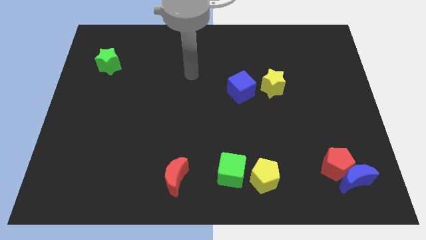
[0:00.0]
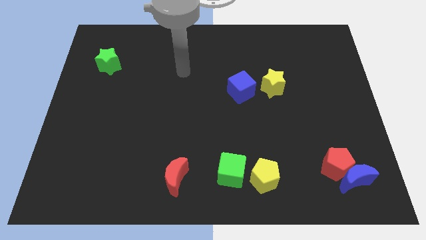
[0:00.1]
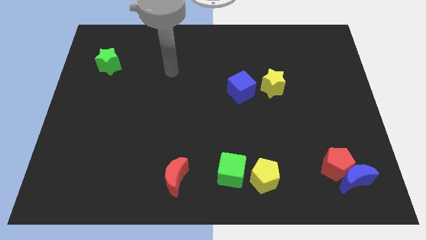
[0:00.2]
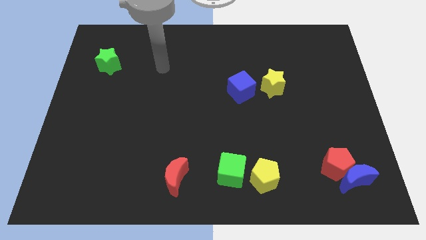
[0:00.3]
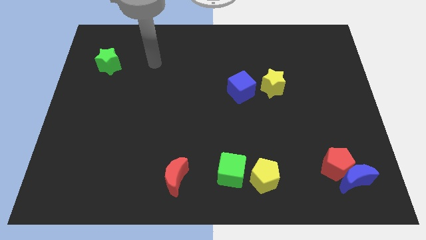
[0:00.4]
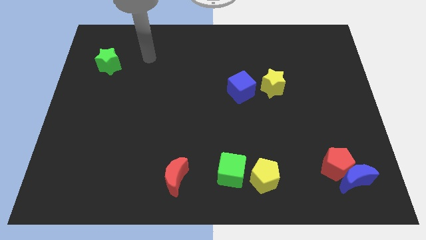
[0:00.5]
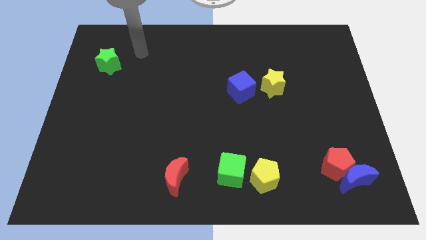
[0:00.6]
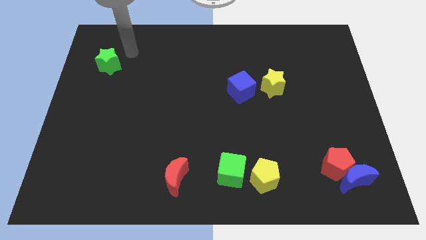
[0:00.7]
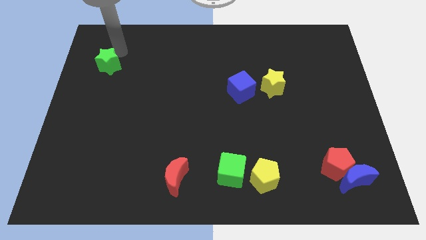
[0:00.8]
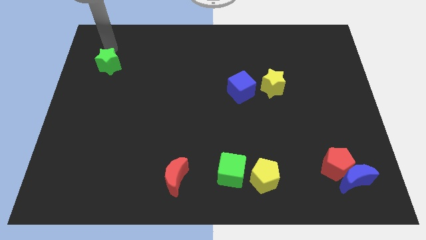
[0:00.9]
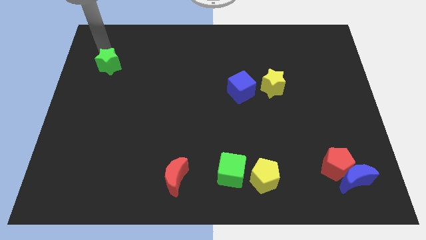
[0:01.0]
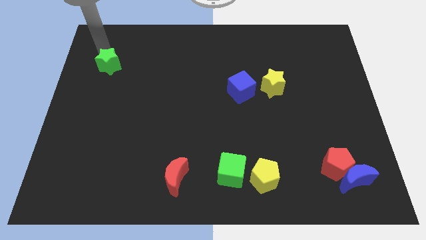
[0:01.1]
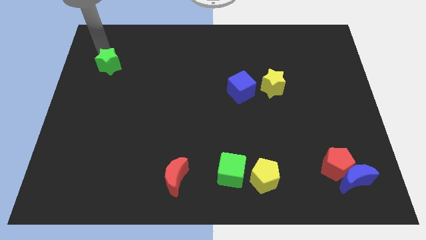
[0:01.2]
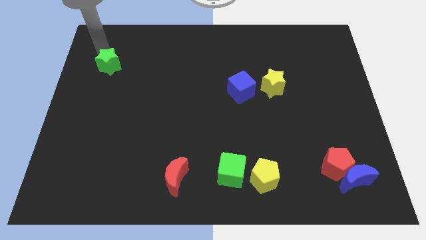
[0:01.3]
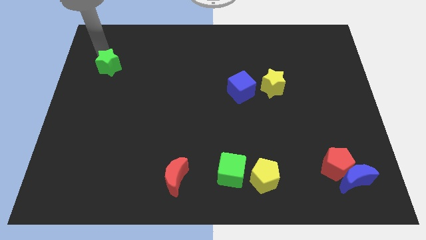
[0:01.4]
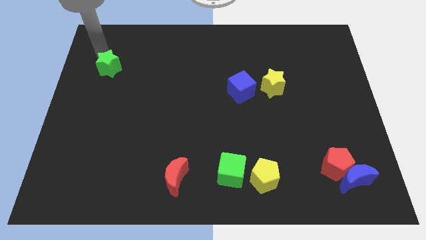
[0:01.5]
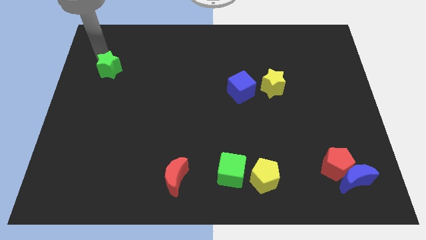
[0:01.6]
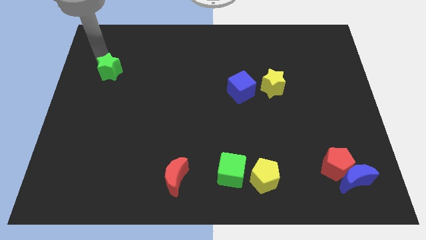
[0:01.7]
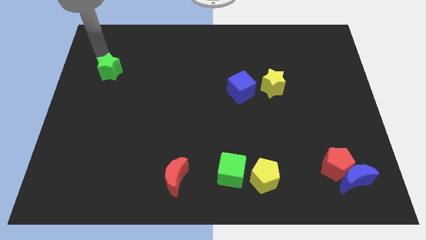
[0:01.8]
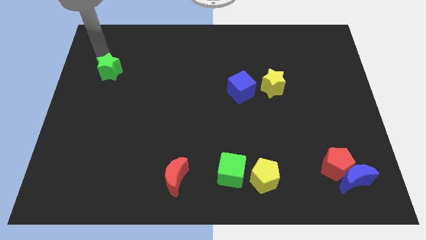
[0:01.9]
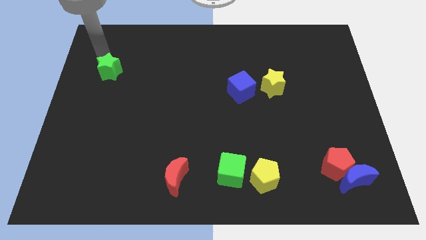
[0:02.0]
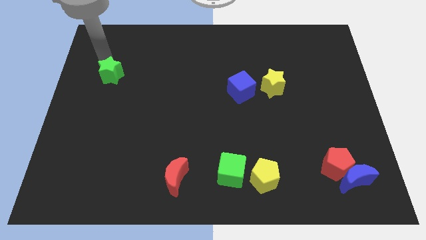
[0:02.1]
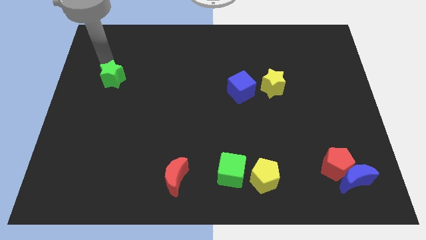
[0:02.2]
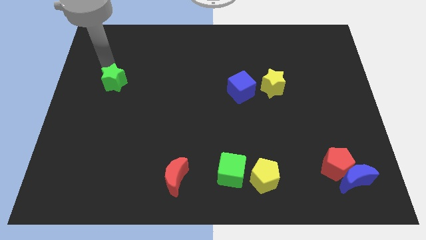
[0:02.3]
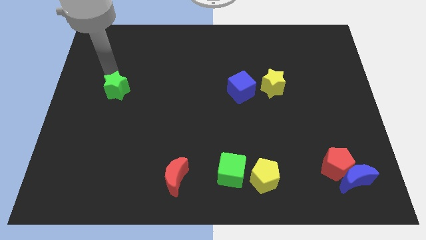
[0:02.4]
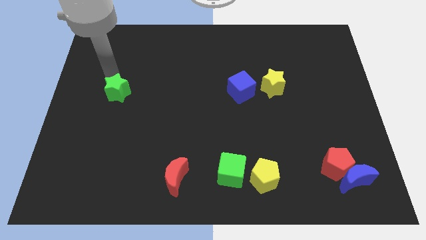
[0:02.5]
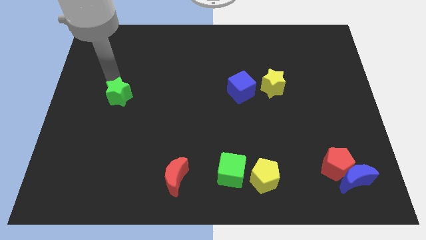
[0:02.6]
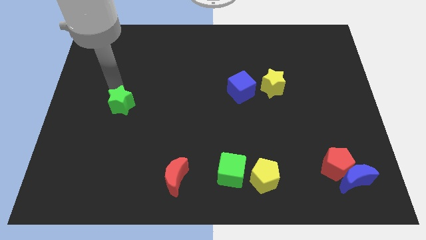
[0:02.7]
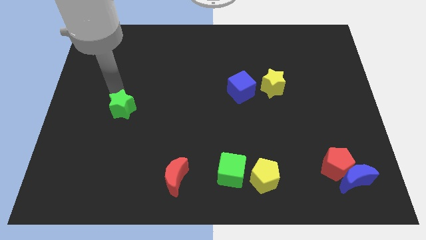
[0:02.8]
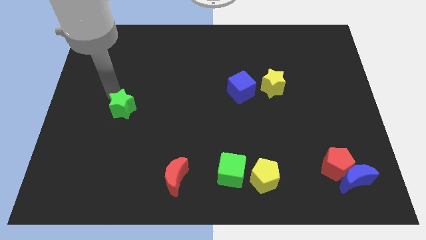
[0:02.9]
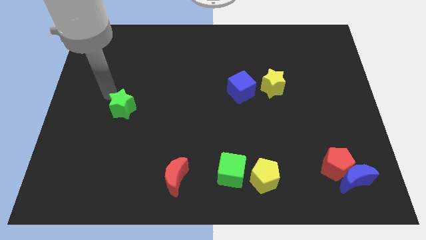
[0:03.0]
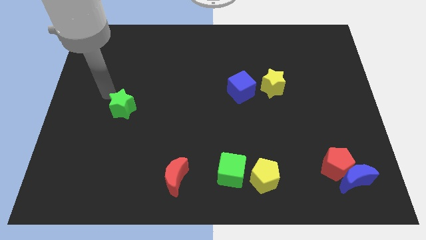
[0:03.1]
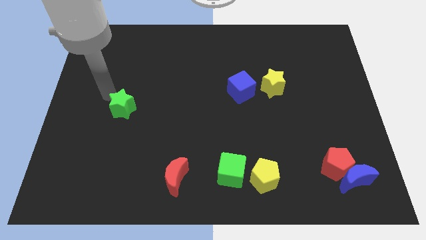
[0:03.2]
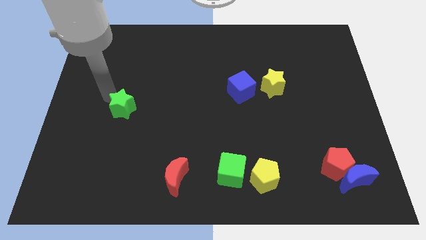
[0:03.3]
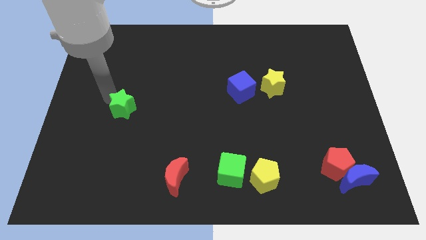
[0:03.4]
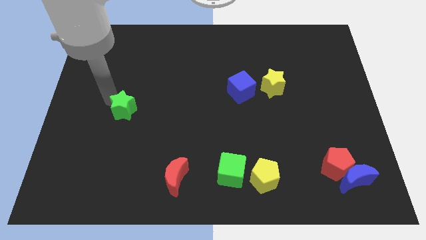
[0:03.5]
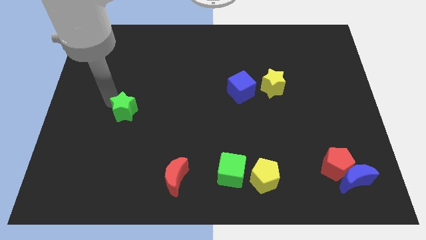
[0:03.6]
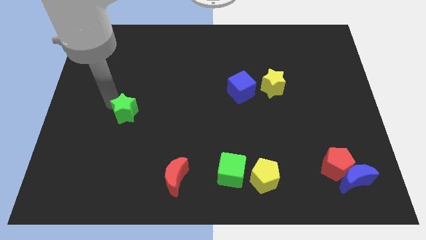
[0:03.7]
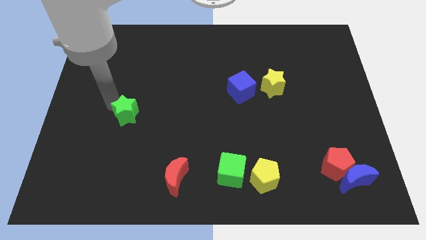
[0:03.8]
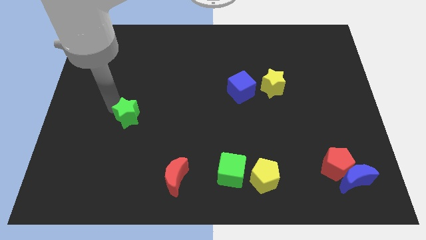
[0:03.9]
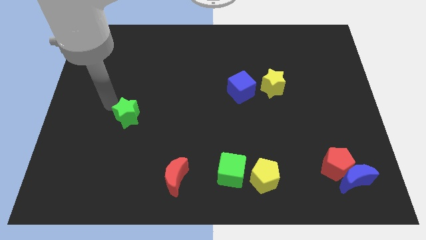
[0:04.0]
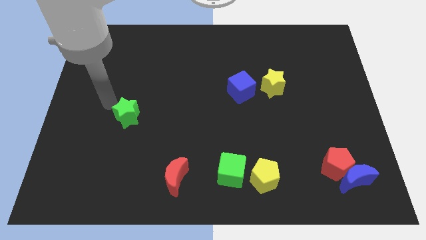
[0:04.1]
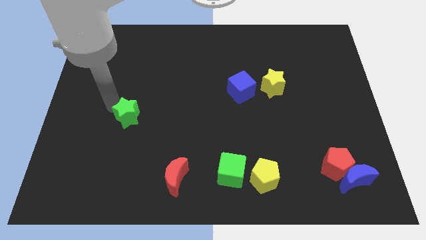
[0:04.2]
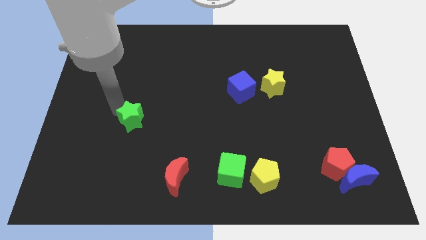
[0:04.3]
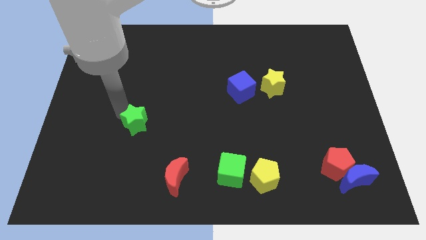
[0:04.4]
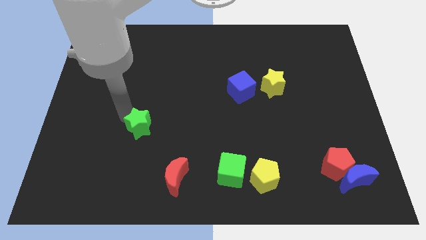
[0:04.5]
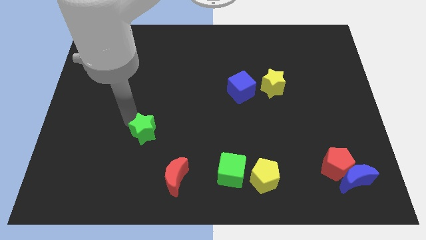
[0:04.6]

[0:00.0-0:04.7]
slide the green star down and then to the right

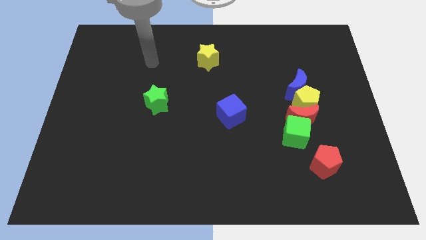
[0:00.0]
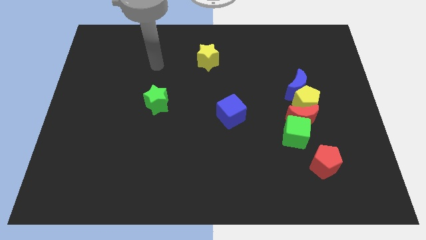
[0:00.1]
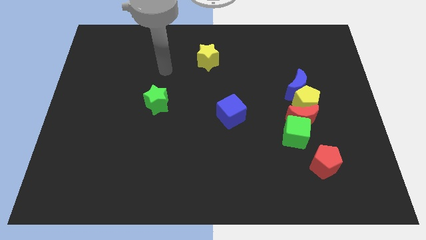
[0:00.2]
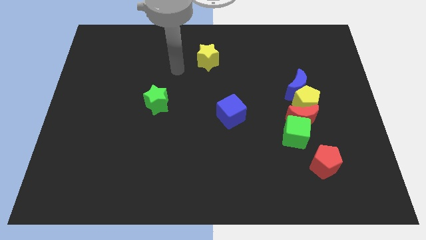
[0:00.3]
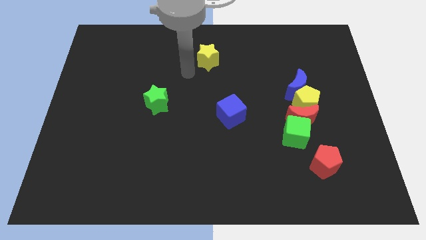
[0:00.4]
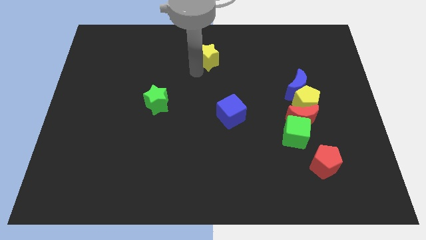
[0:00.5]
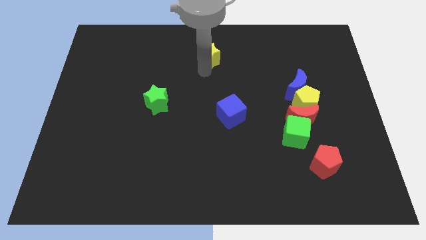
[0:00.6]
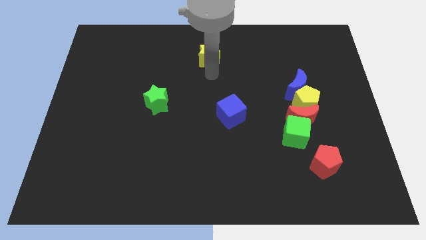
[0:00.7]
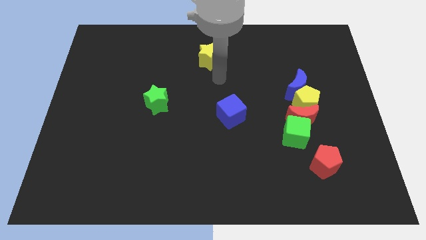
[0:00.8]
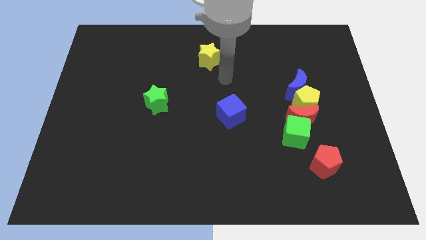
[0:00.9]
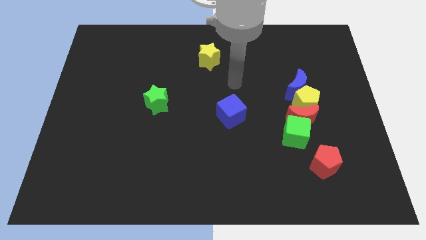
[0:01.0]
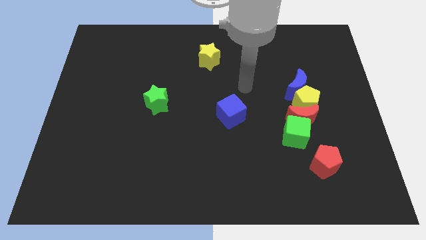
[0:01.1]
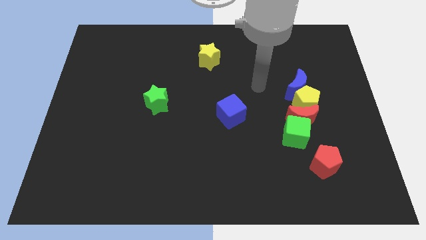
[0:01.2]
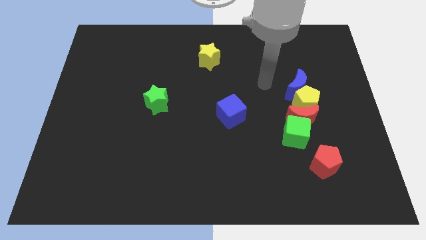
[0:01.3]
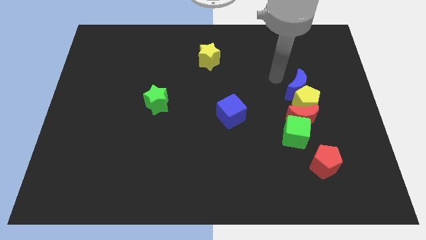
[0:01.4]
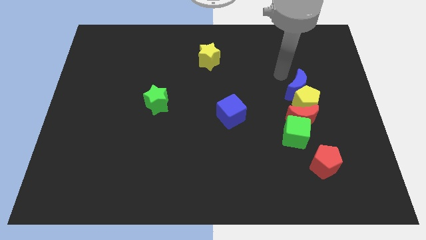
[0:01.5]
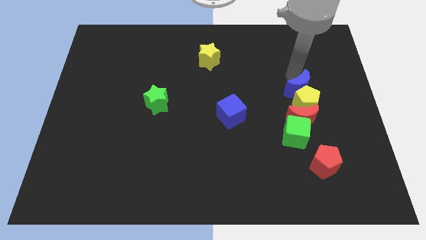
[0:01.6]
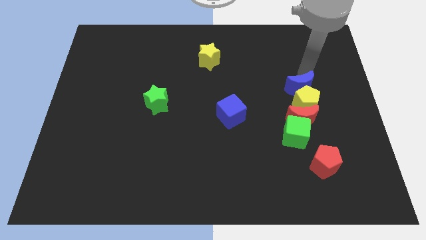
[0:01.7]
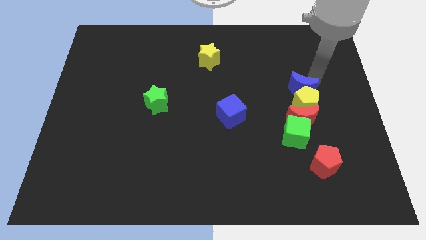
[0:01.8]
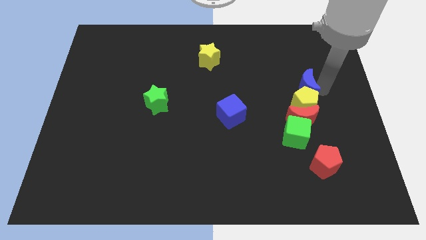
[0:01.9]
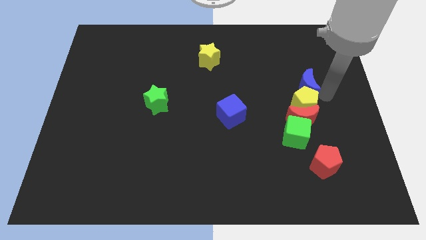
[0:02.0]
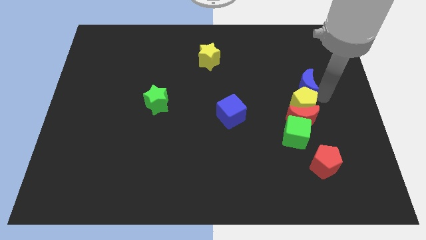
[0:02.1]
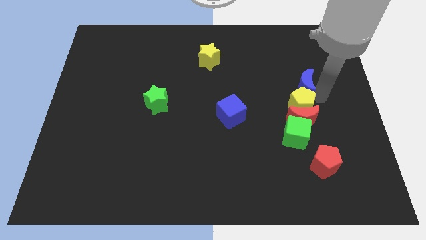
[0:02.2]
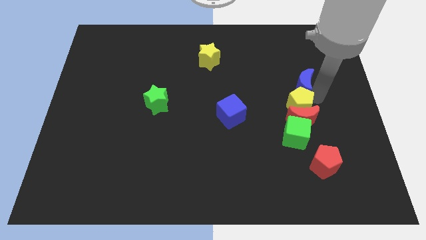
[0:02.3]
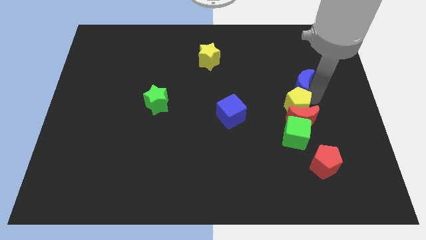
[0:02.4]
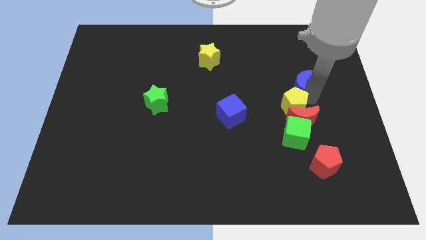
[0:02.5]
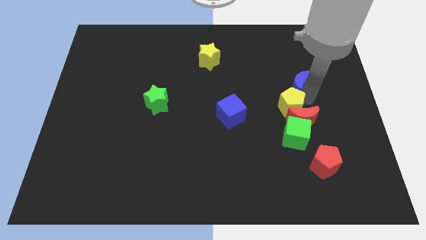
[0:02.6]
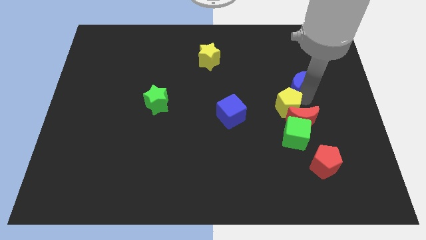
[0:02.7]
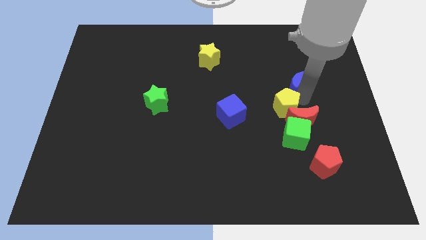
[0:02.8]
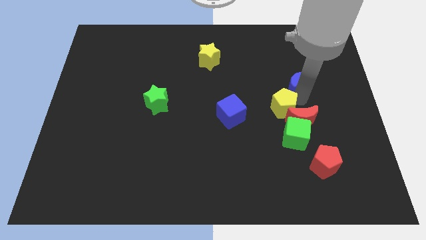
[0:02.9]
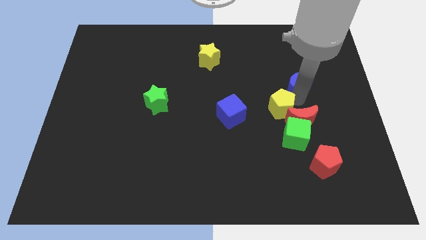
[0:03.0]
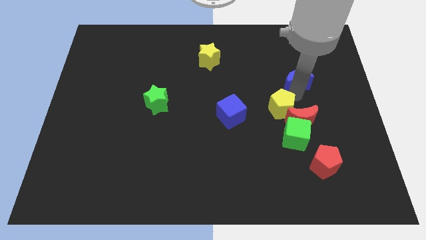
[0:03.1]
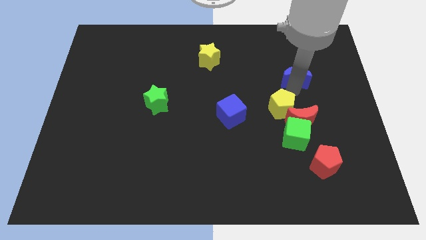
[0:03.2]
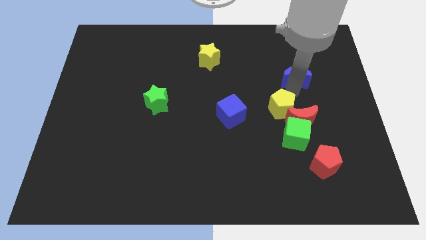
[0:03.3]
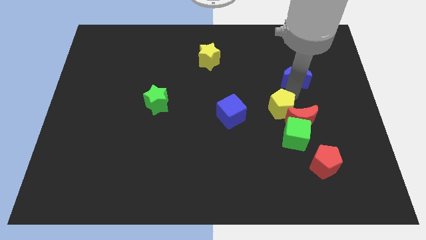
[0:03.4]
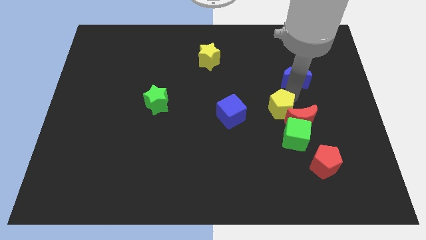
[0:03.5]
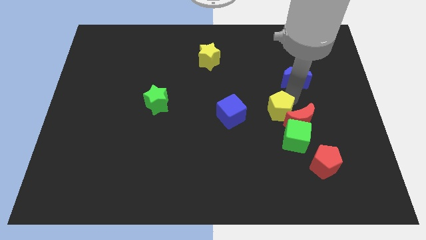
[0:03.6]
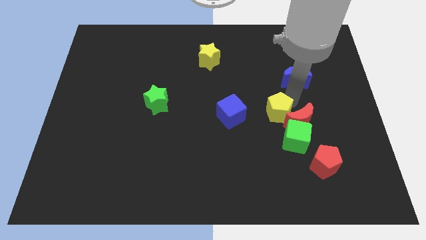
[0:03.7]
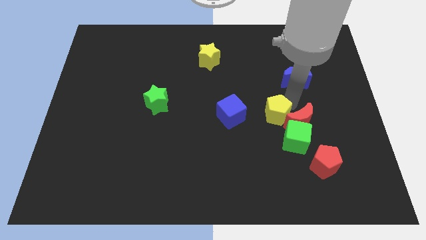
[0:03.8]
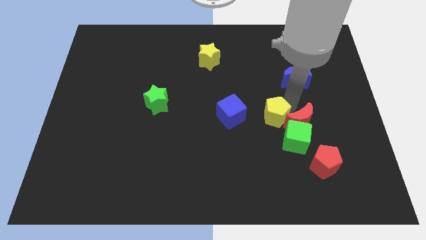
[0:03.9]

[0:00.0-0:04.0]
slide the yellow pentagon somewhat down and left diagonally

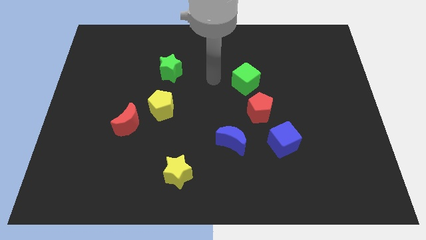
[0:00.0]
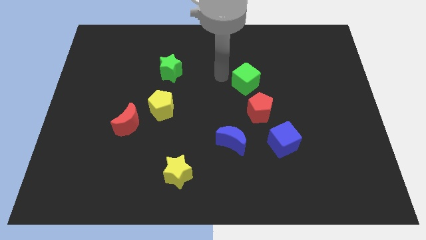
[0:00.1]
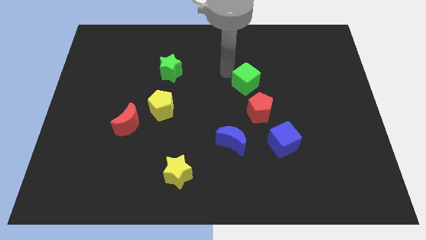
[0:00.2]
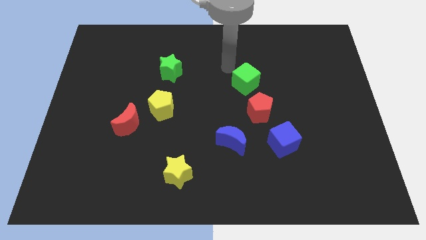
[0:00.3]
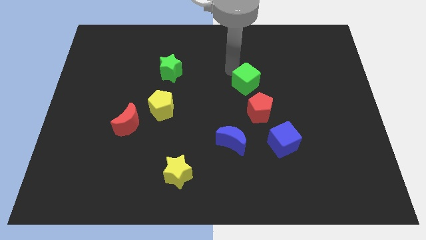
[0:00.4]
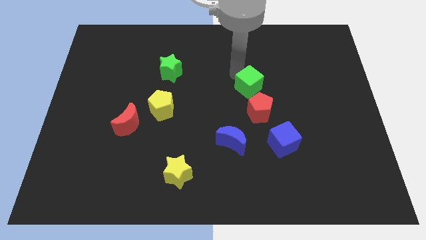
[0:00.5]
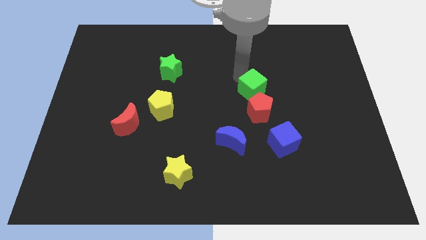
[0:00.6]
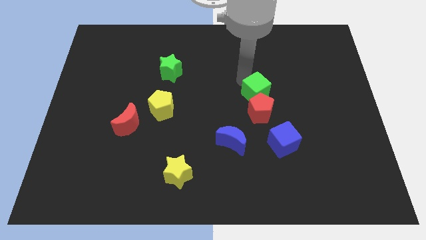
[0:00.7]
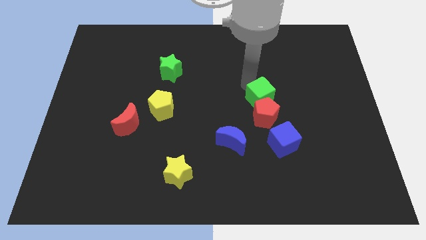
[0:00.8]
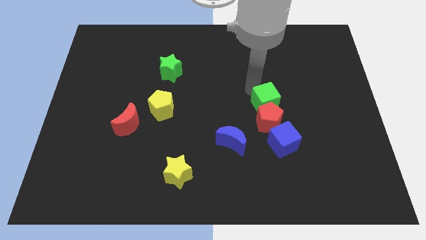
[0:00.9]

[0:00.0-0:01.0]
move the green cube downwards and right a little bit
